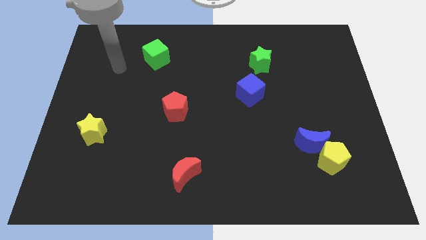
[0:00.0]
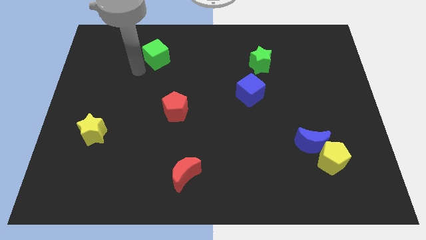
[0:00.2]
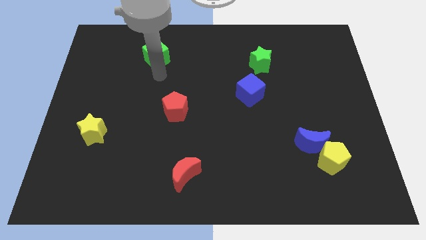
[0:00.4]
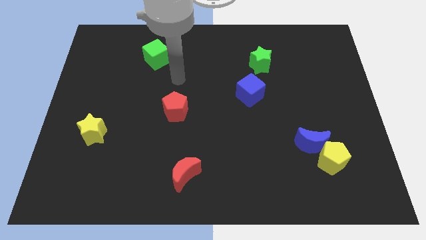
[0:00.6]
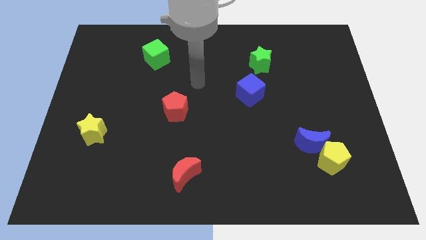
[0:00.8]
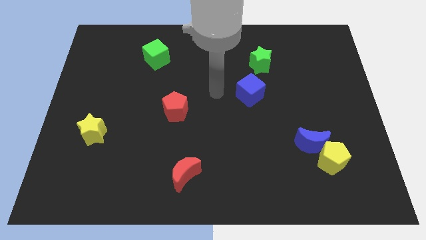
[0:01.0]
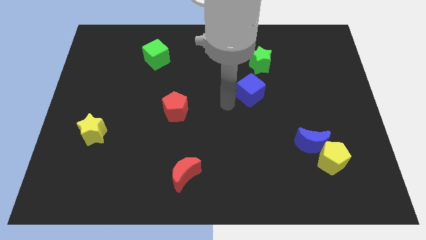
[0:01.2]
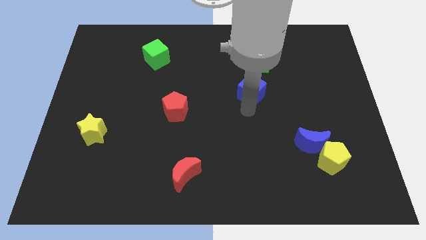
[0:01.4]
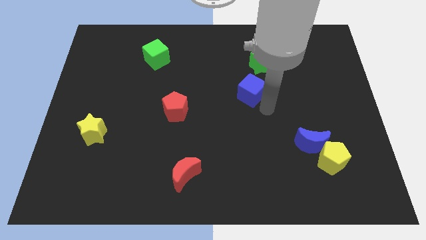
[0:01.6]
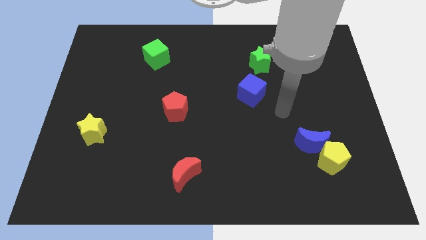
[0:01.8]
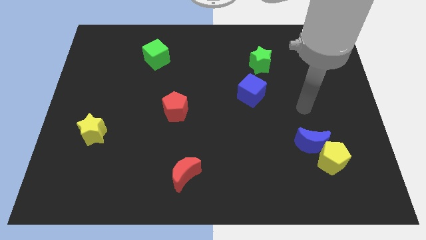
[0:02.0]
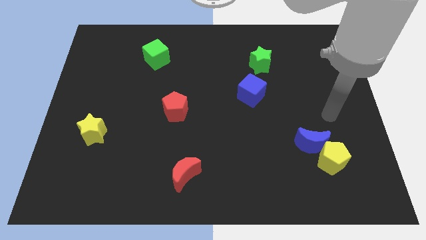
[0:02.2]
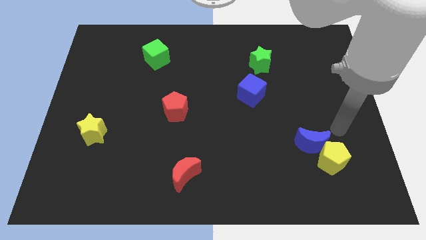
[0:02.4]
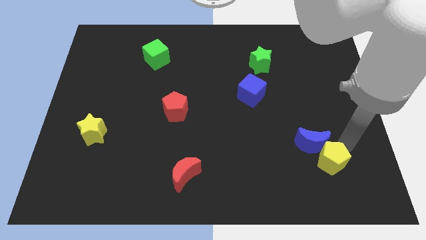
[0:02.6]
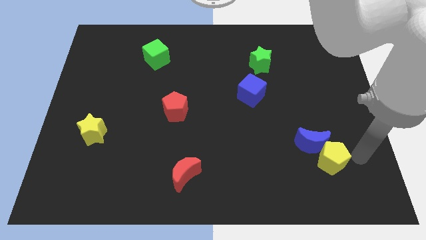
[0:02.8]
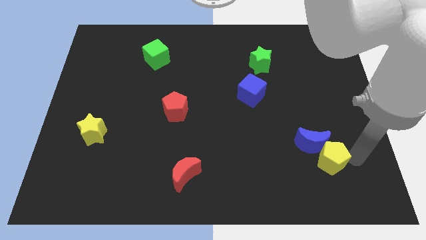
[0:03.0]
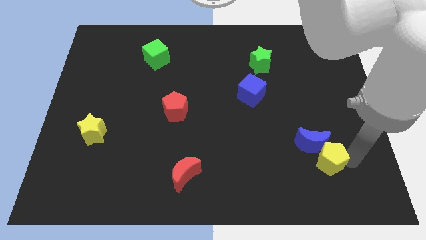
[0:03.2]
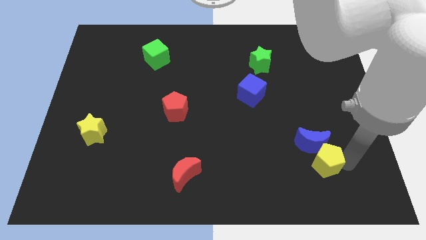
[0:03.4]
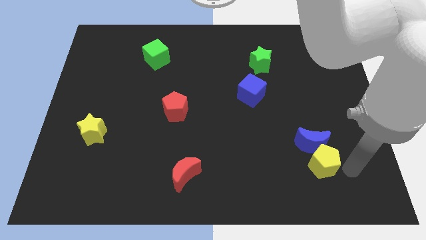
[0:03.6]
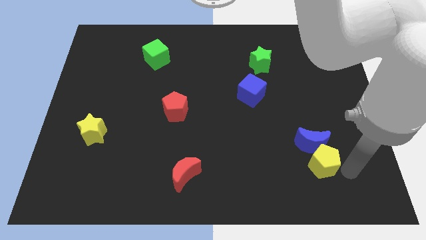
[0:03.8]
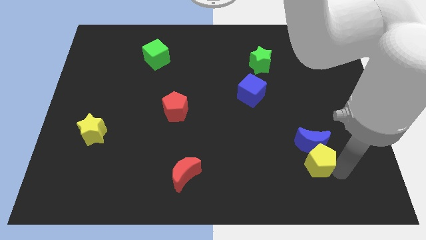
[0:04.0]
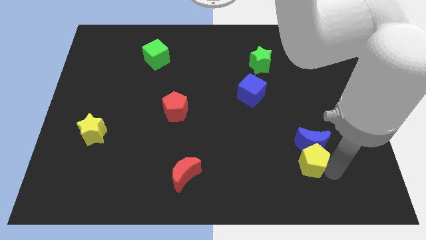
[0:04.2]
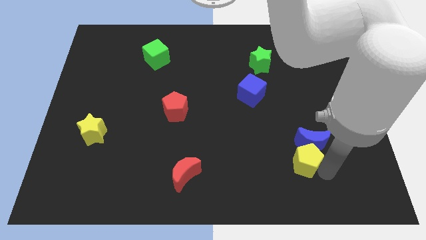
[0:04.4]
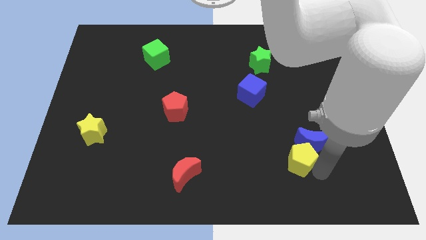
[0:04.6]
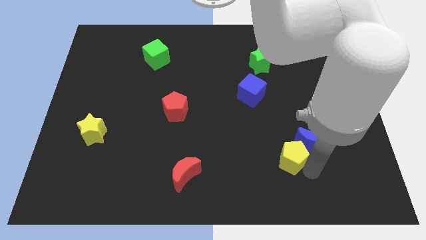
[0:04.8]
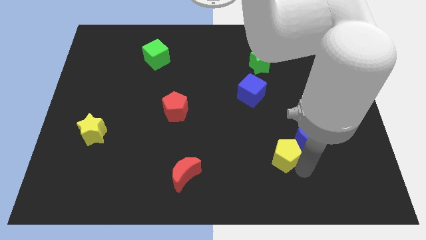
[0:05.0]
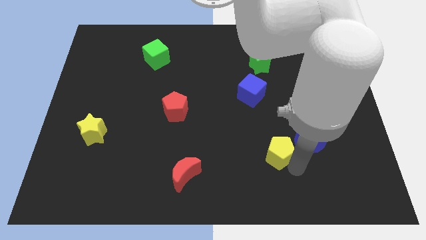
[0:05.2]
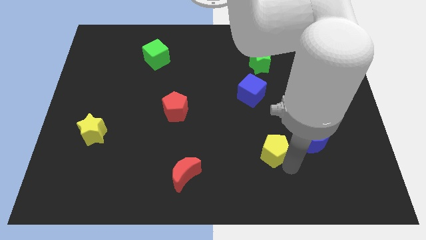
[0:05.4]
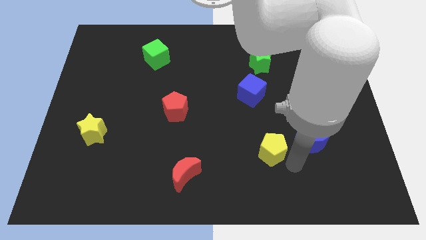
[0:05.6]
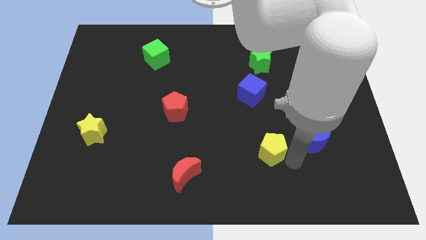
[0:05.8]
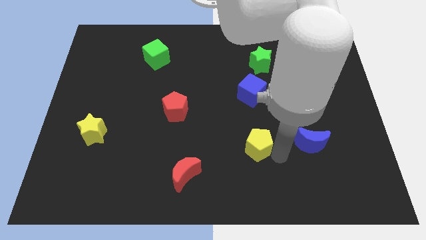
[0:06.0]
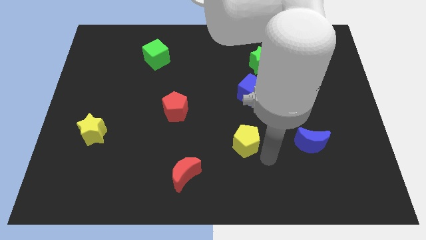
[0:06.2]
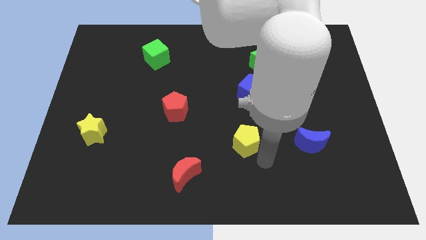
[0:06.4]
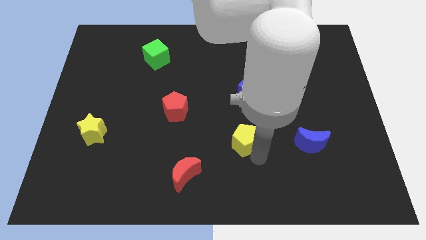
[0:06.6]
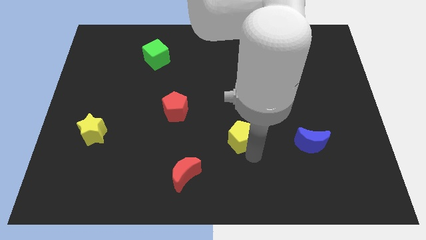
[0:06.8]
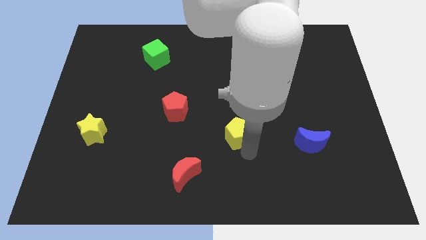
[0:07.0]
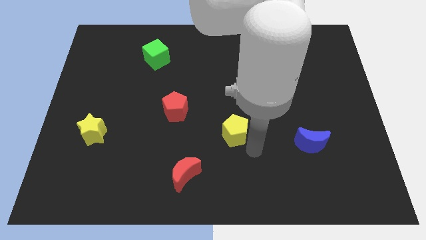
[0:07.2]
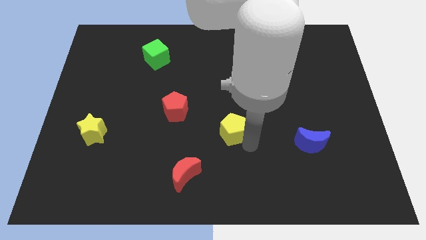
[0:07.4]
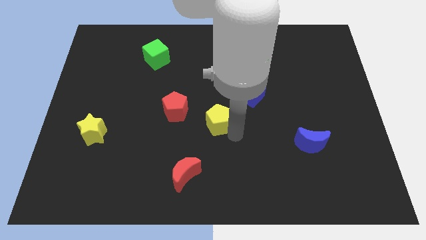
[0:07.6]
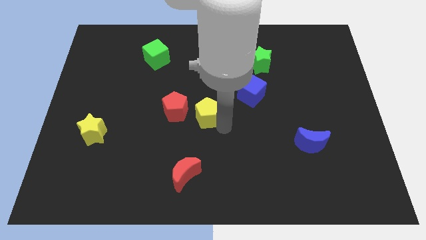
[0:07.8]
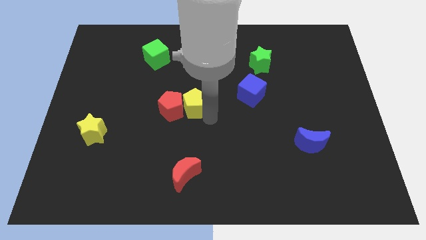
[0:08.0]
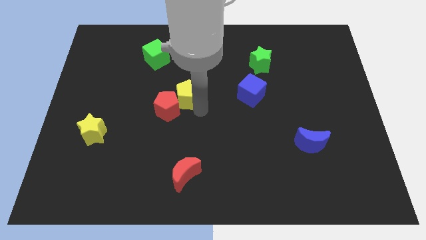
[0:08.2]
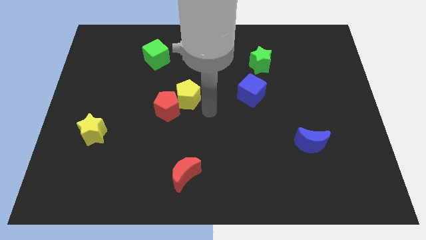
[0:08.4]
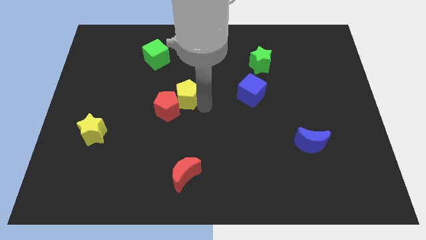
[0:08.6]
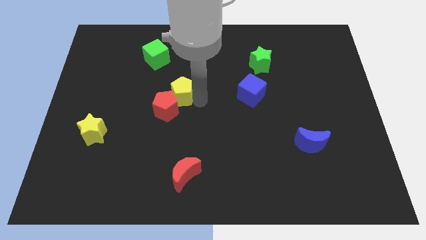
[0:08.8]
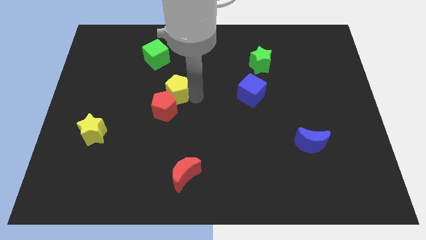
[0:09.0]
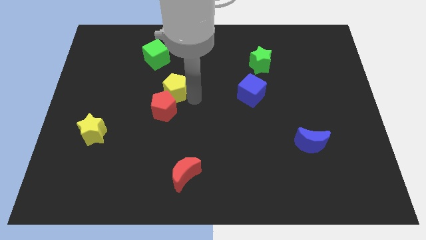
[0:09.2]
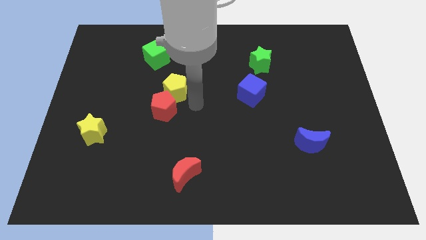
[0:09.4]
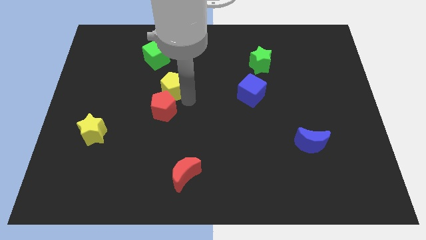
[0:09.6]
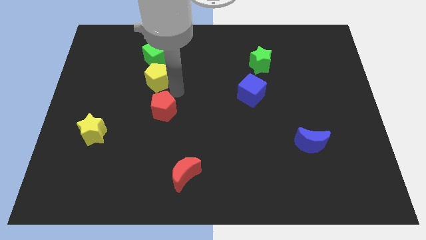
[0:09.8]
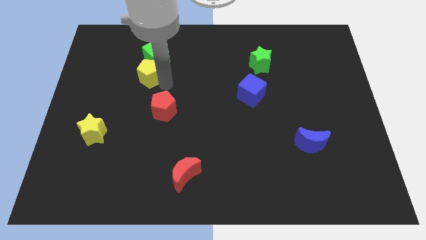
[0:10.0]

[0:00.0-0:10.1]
put the yellow pentagon to the bottom left side of the green cube

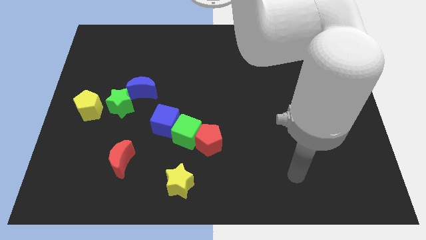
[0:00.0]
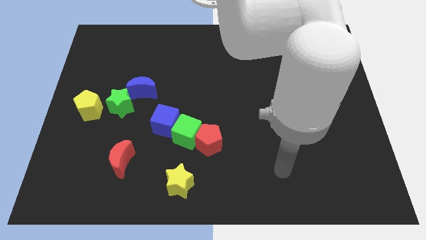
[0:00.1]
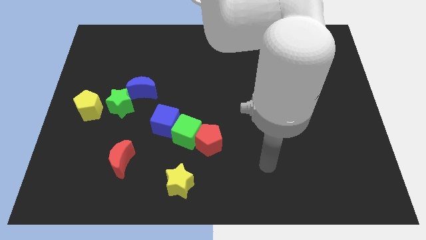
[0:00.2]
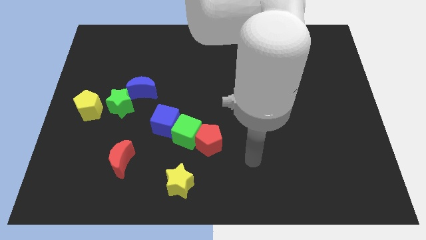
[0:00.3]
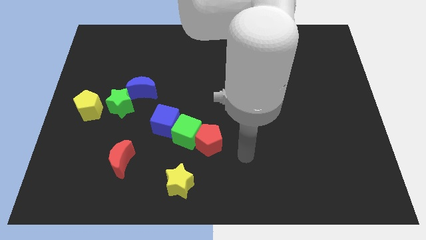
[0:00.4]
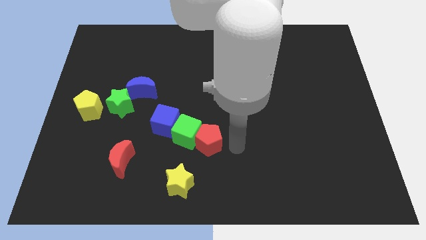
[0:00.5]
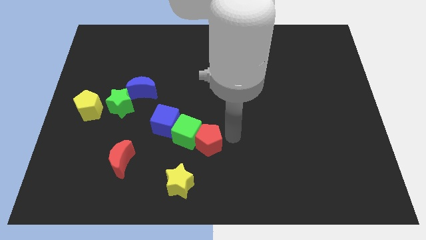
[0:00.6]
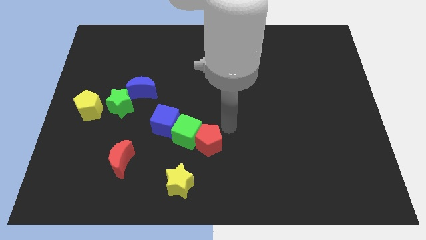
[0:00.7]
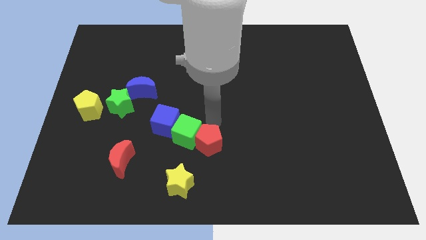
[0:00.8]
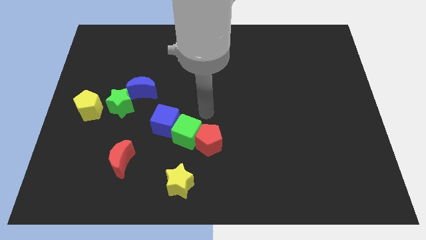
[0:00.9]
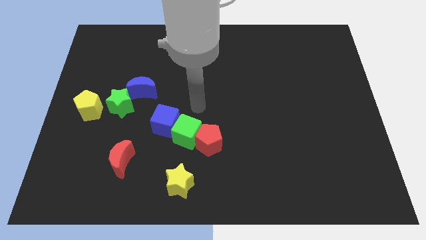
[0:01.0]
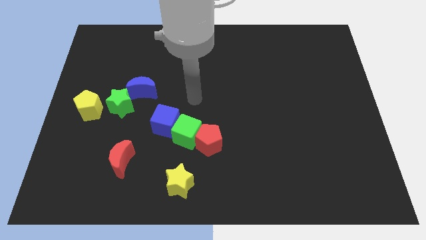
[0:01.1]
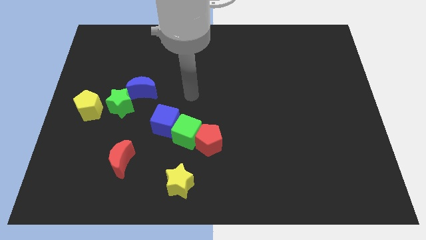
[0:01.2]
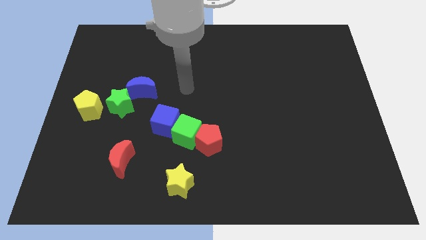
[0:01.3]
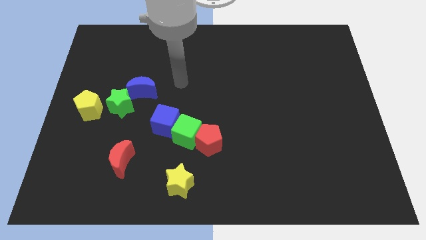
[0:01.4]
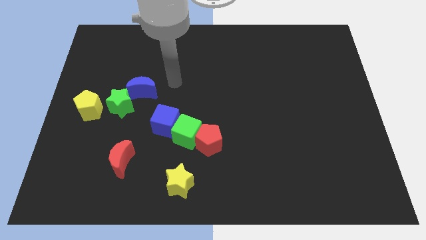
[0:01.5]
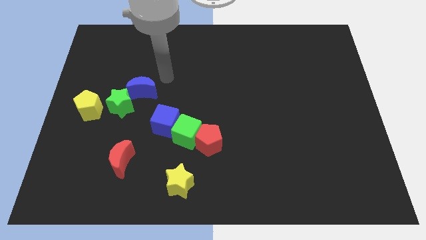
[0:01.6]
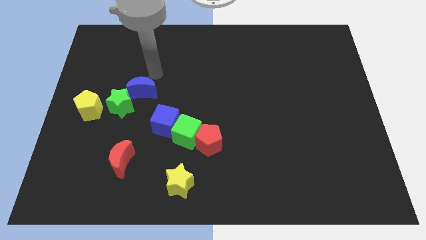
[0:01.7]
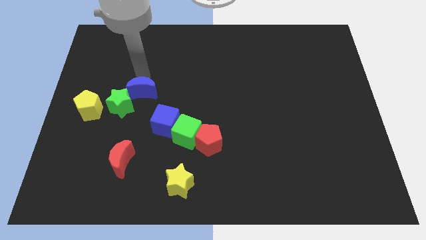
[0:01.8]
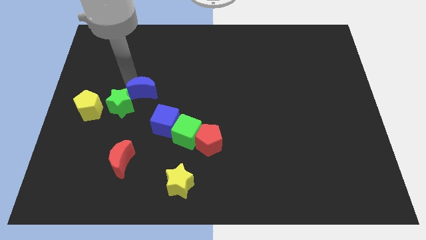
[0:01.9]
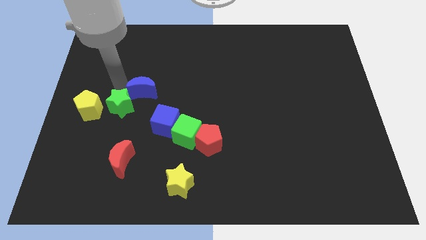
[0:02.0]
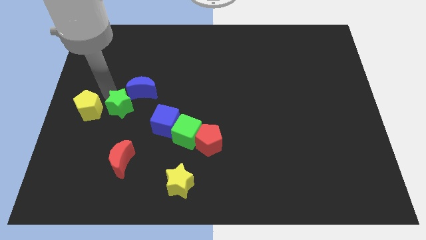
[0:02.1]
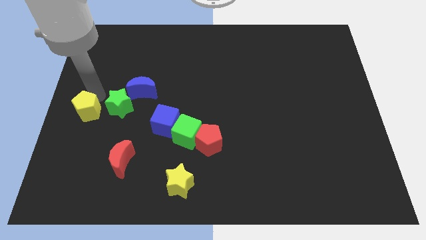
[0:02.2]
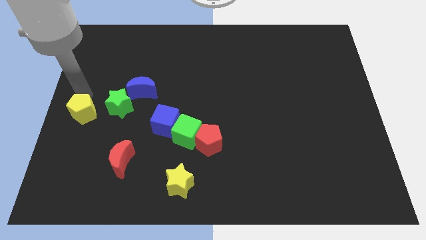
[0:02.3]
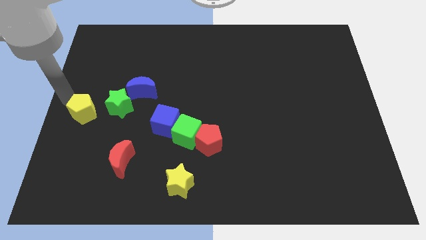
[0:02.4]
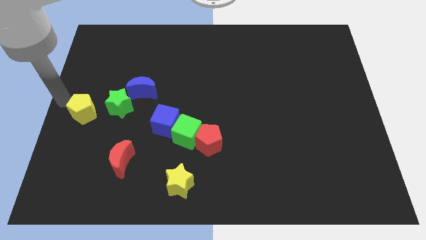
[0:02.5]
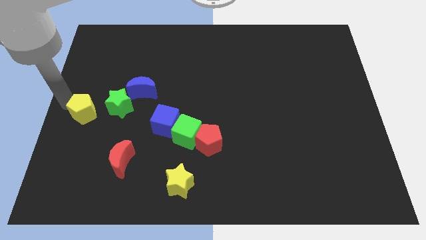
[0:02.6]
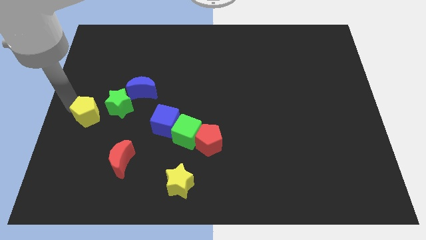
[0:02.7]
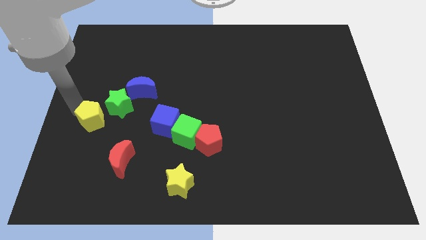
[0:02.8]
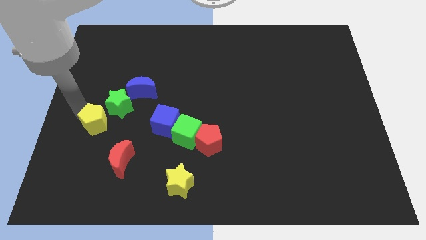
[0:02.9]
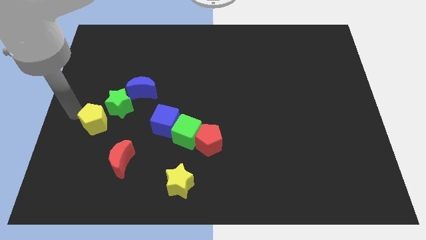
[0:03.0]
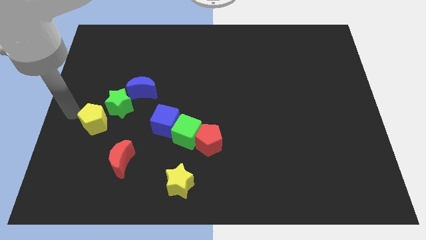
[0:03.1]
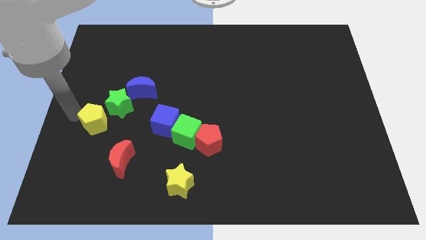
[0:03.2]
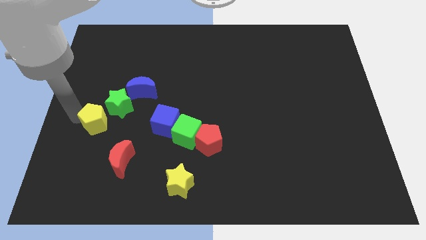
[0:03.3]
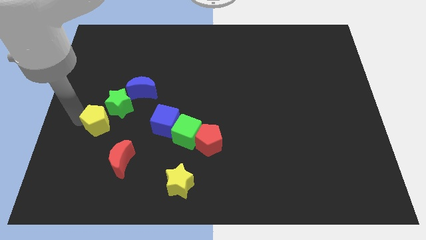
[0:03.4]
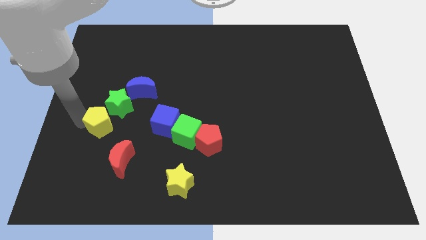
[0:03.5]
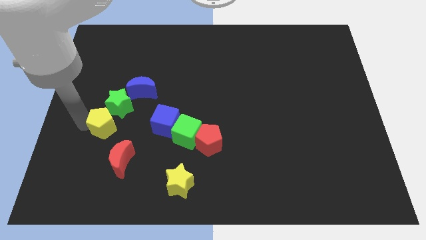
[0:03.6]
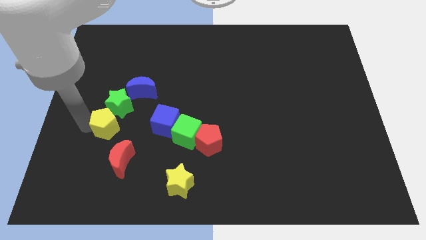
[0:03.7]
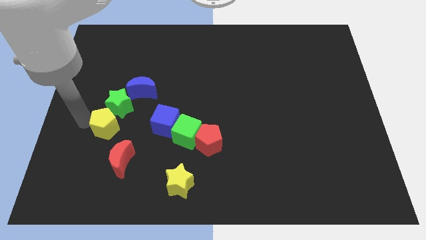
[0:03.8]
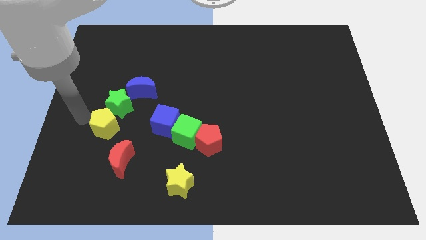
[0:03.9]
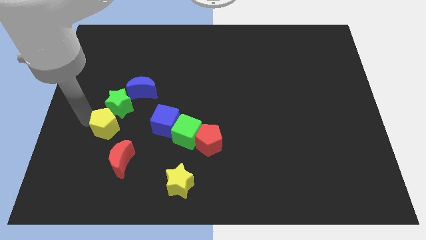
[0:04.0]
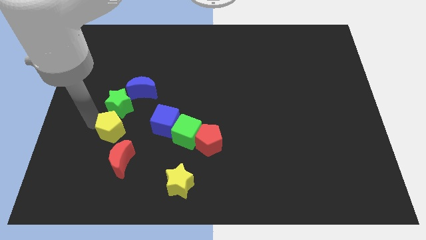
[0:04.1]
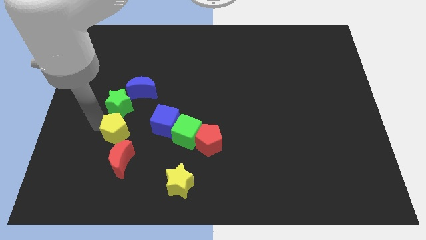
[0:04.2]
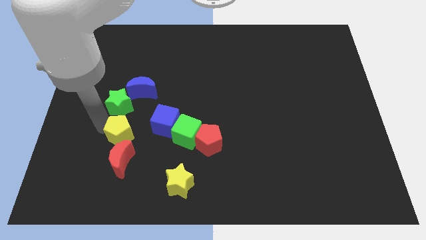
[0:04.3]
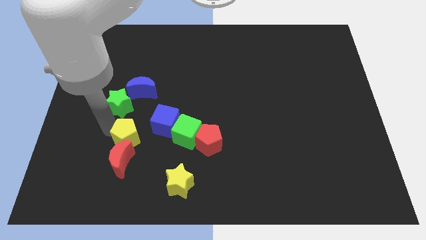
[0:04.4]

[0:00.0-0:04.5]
put the yellow pentagon to the bottom left side of the blue cube
